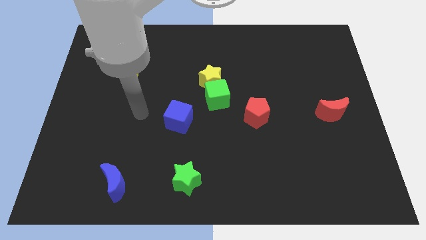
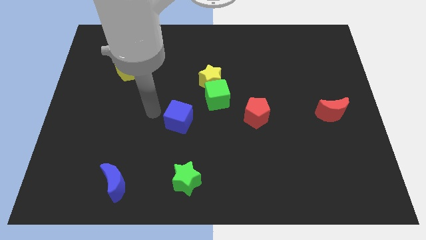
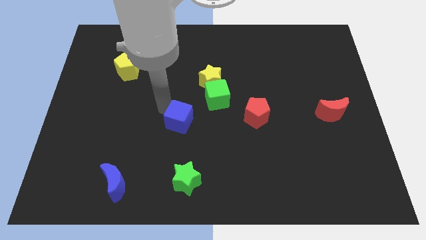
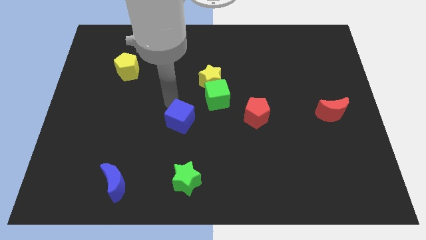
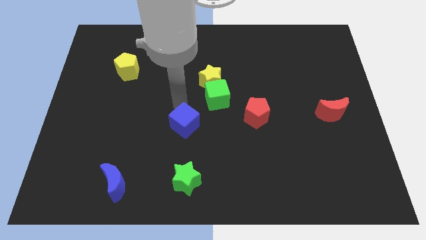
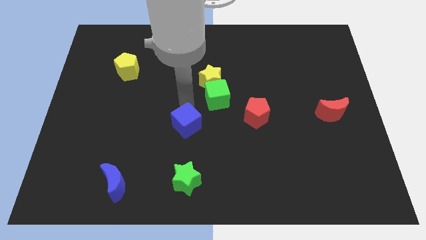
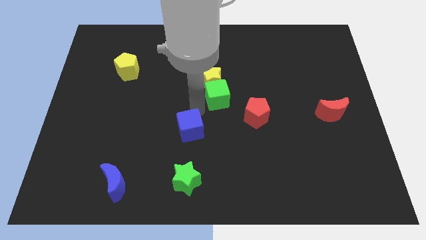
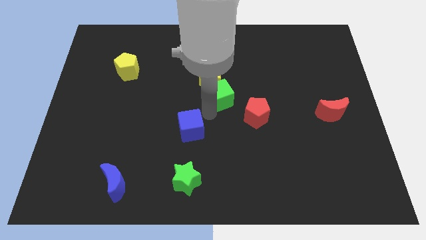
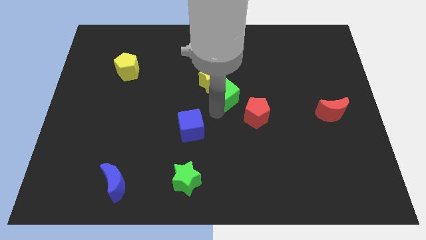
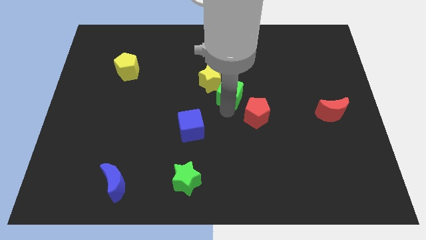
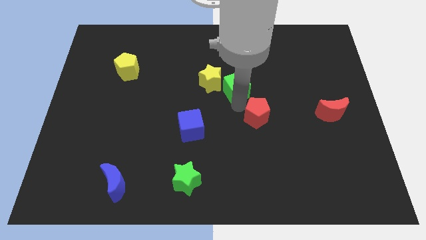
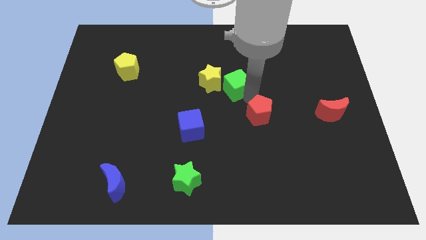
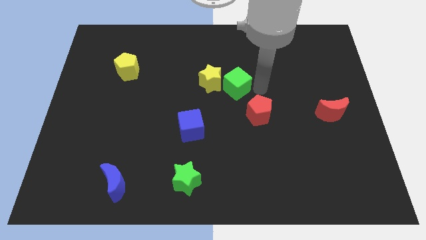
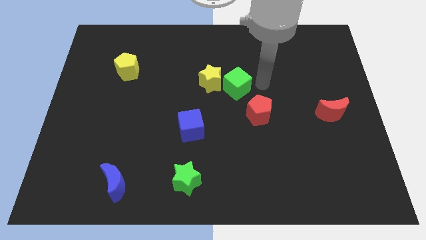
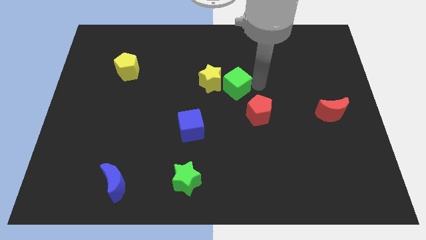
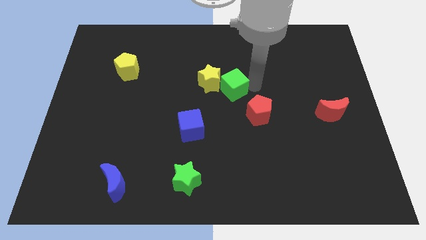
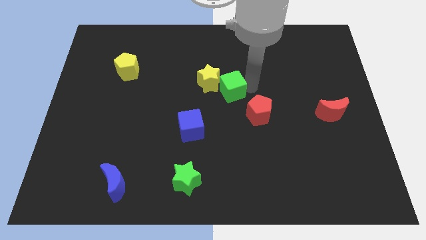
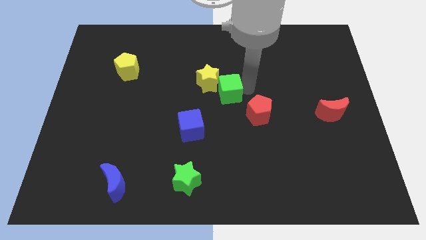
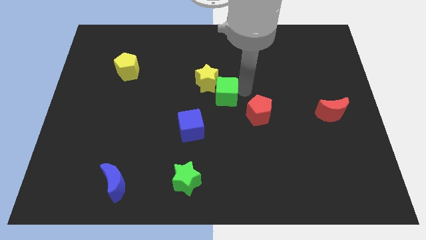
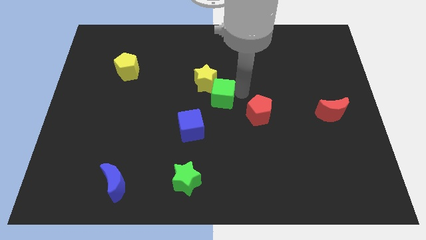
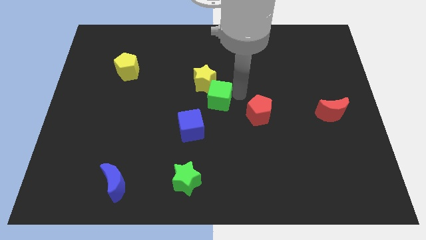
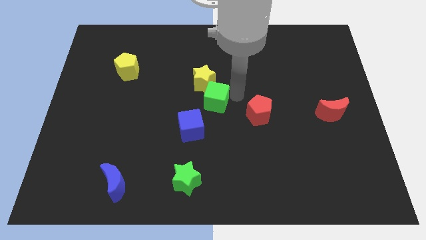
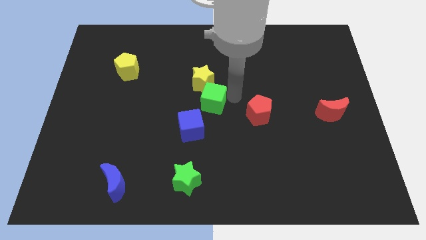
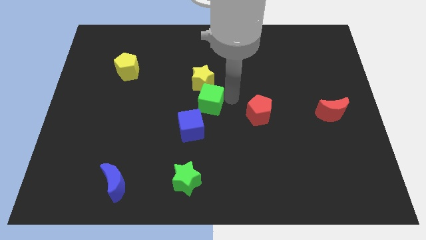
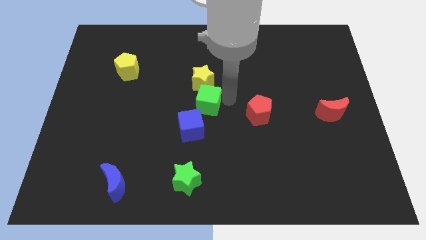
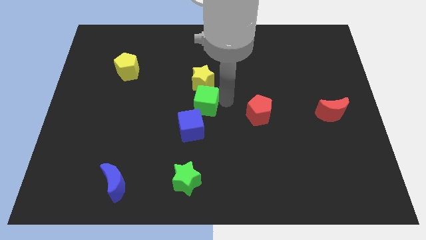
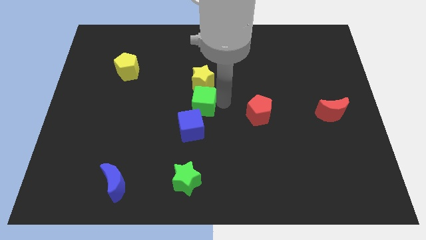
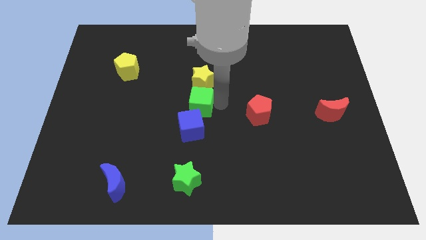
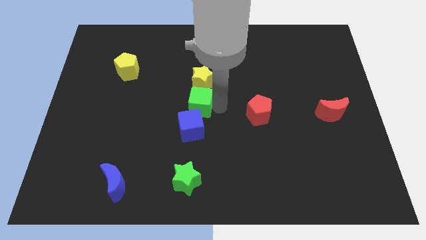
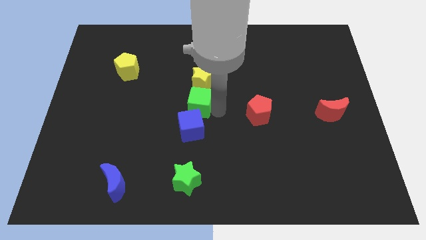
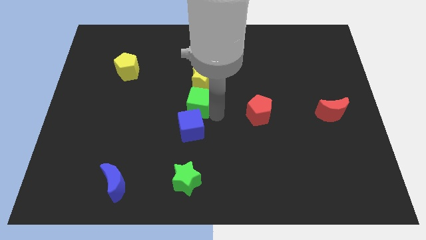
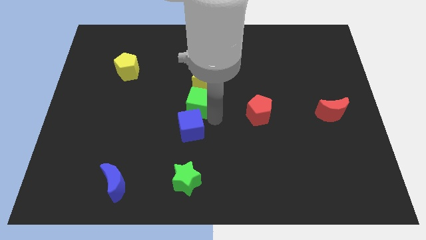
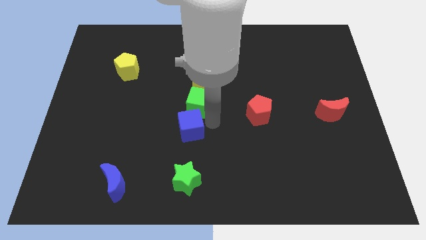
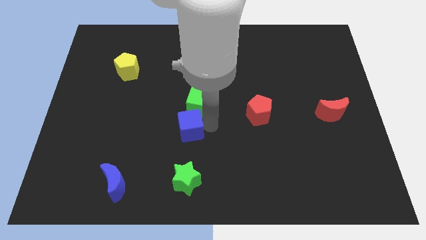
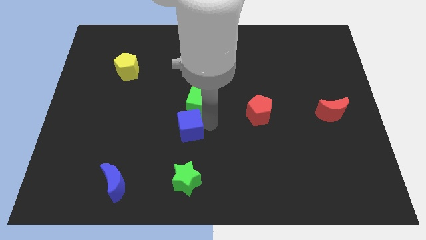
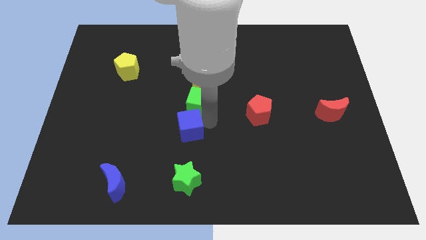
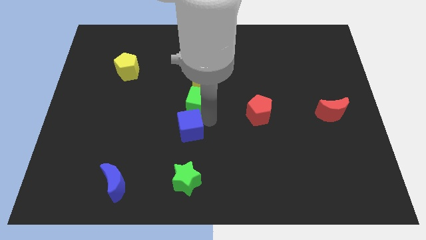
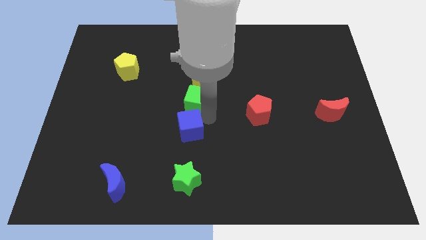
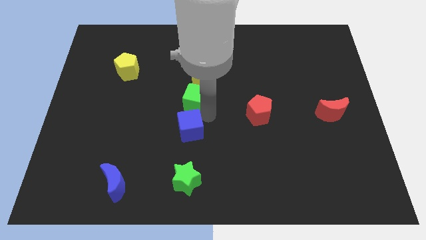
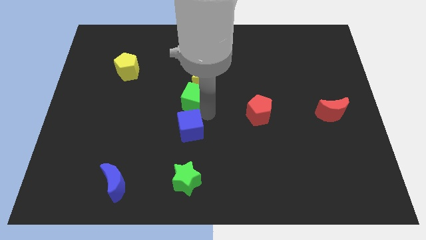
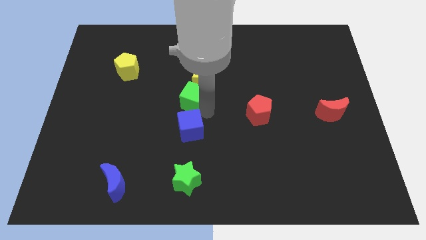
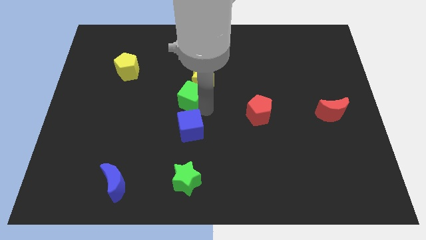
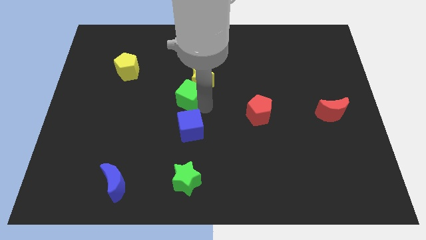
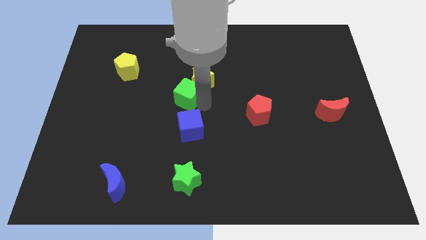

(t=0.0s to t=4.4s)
slide the green cube left a little bit

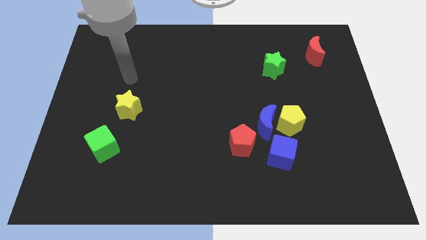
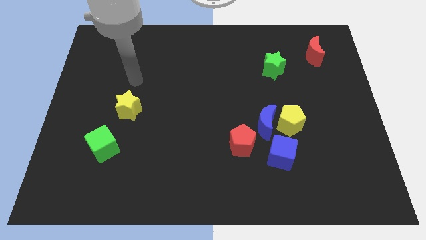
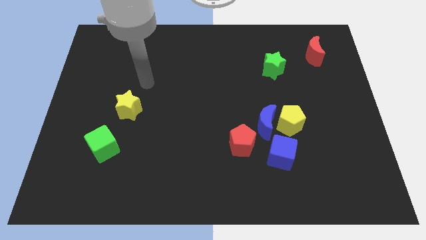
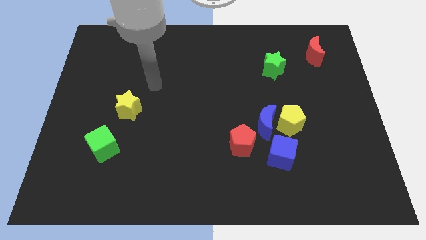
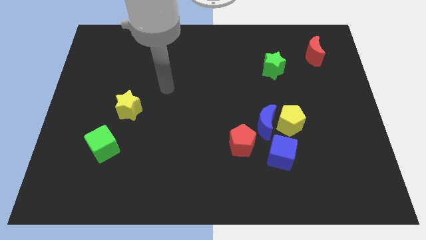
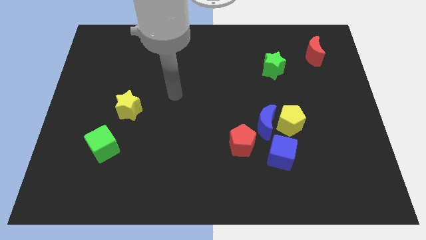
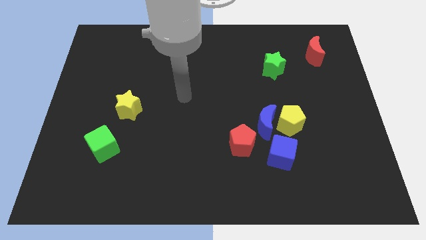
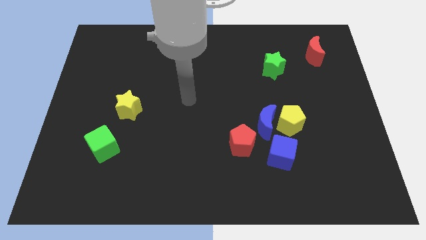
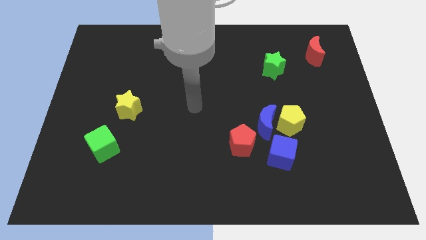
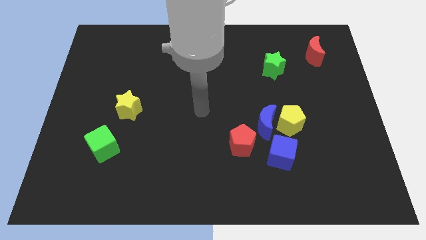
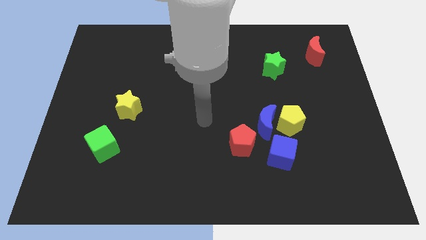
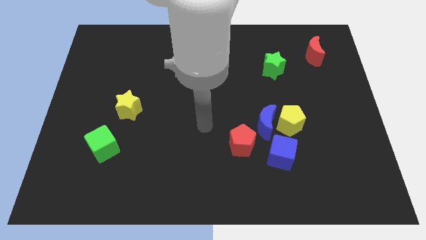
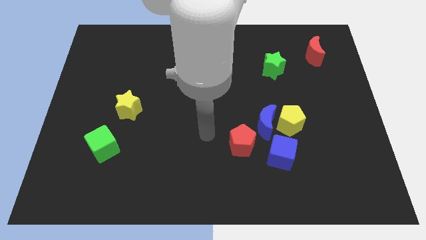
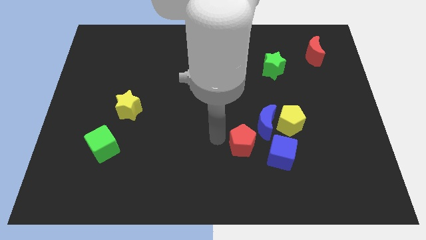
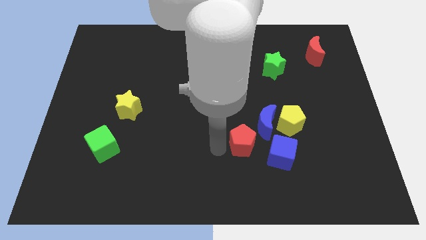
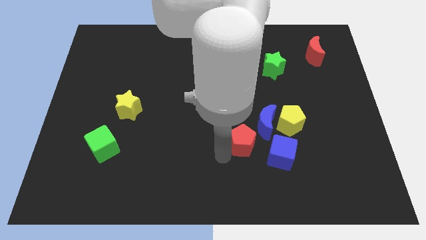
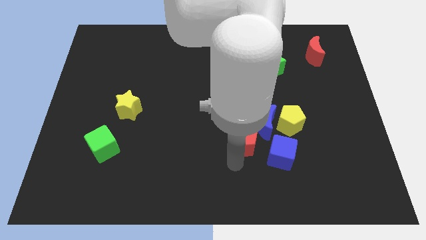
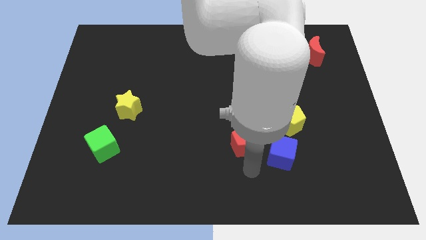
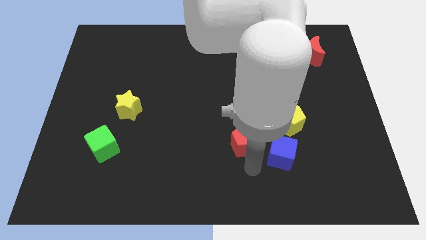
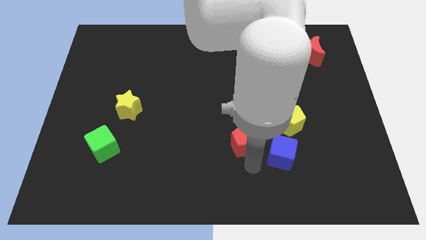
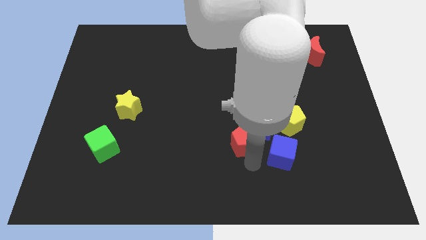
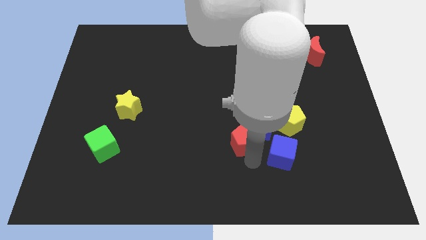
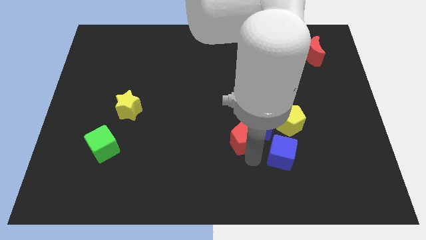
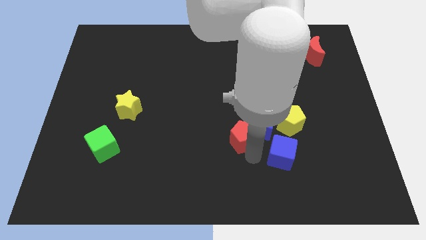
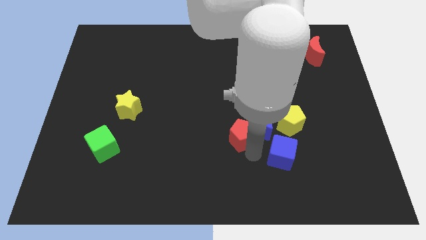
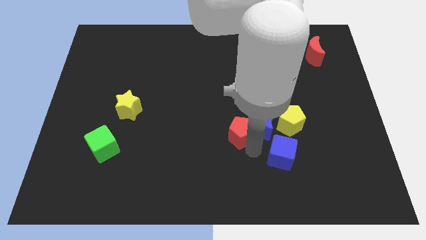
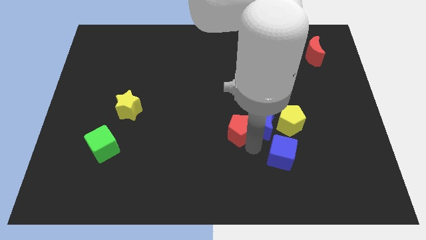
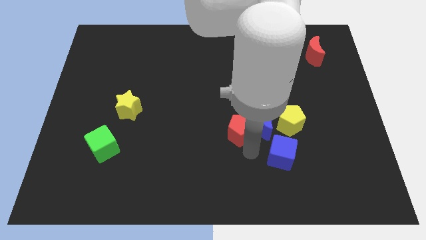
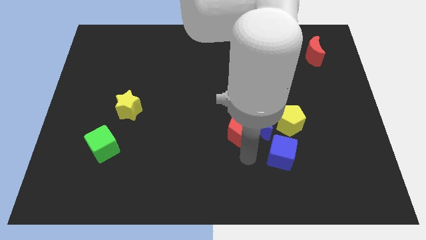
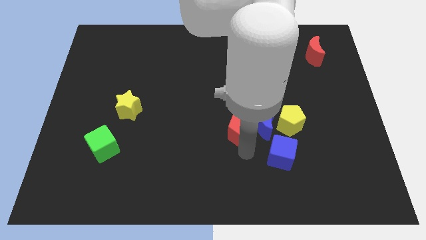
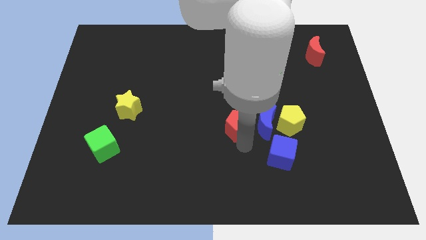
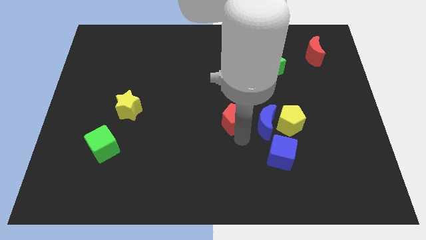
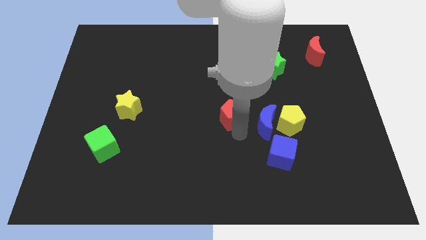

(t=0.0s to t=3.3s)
push the red pentagon up a bit

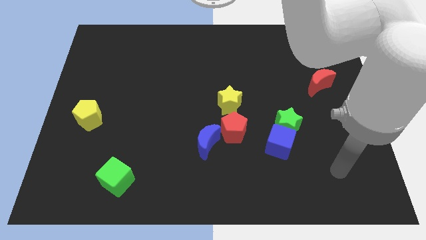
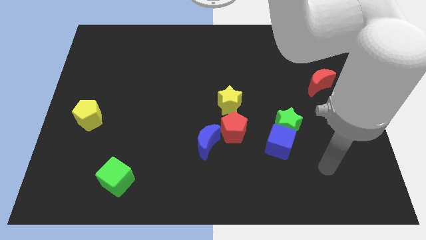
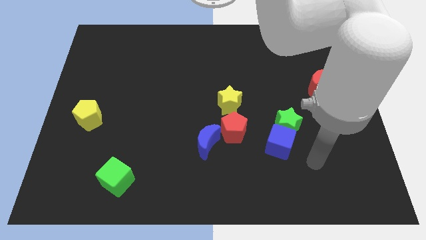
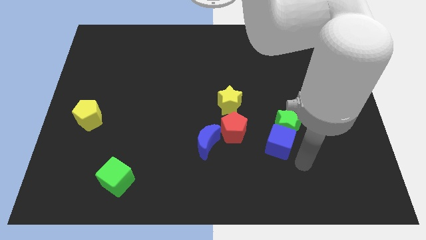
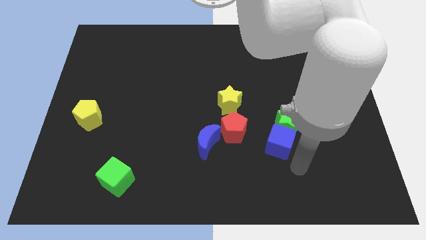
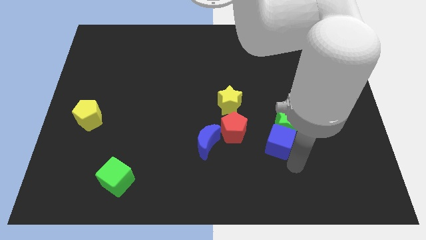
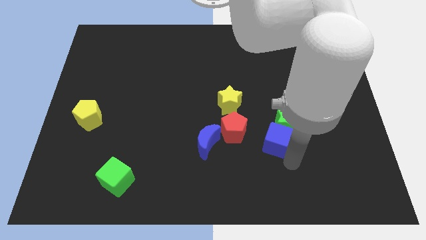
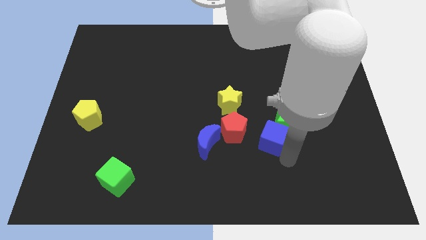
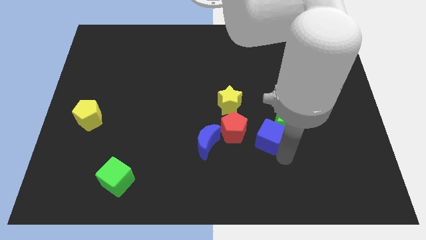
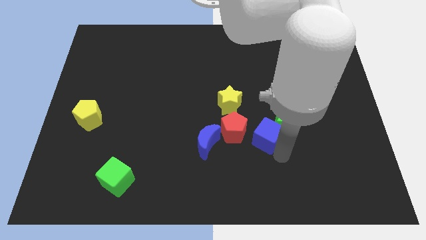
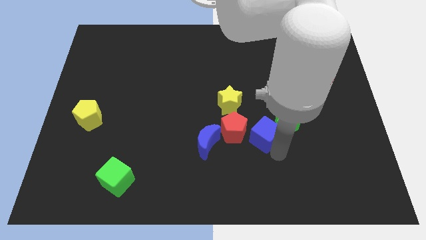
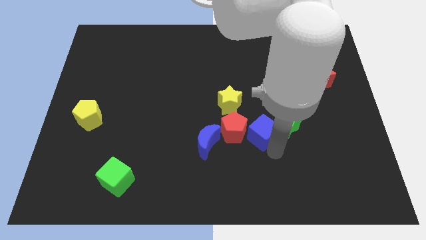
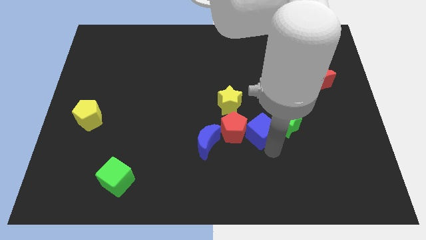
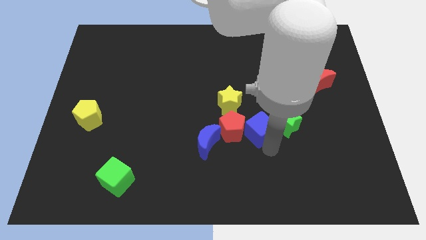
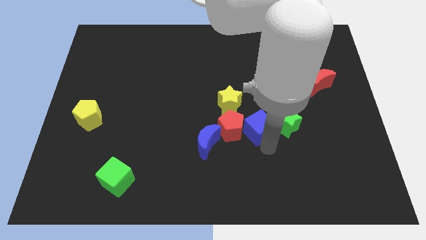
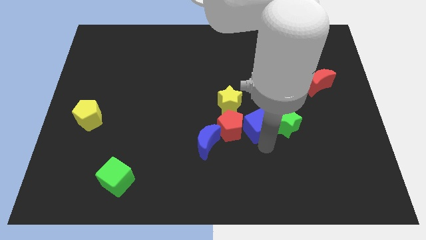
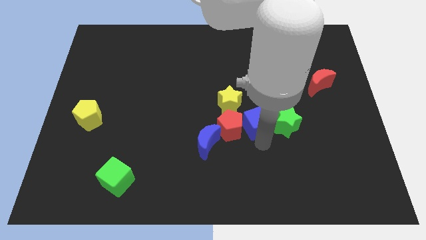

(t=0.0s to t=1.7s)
push the blue cube a bit up and to the left
